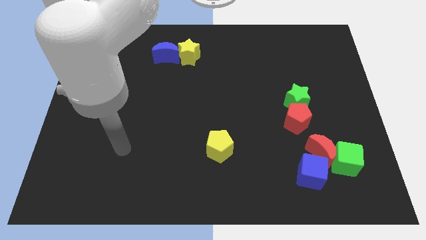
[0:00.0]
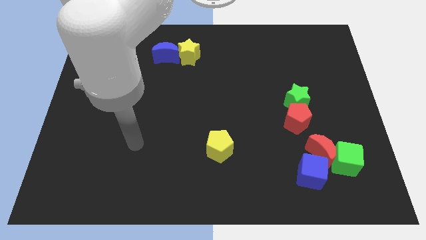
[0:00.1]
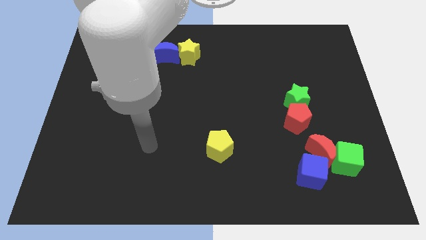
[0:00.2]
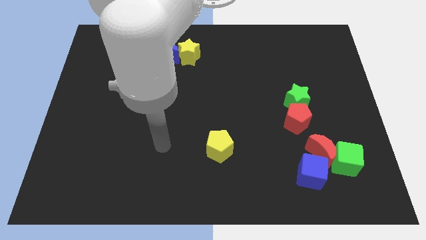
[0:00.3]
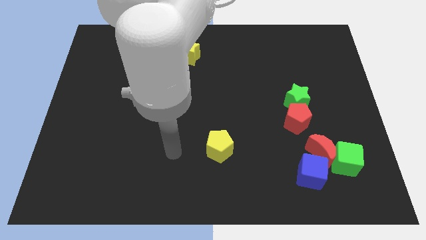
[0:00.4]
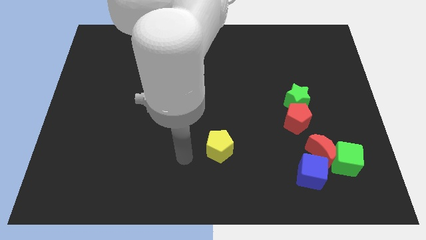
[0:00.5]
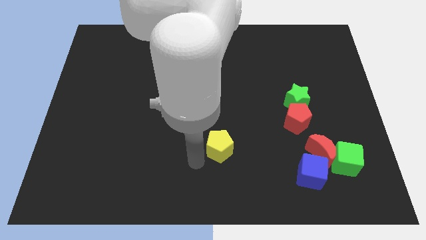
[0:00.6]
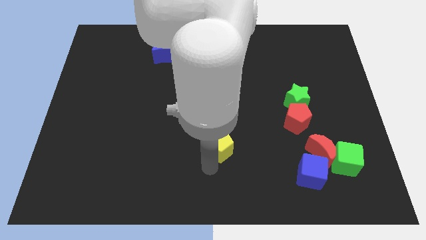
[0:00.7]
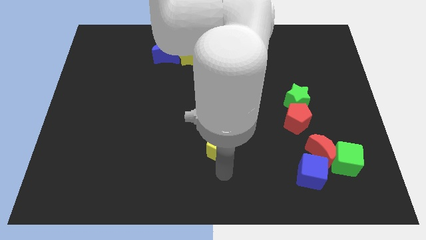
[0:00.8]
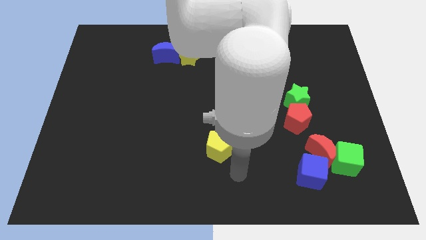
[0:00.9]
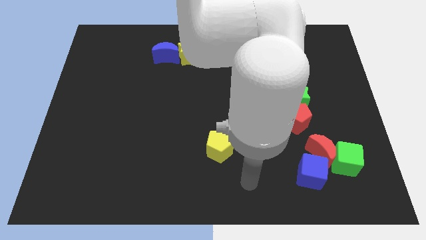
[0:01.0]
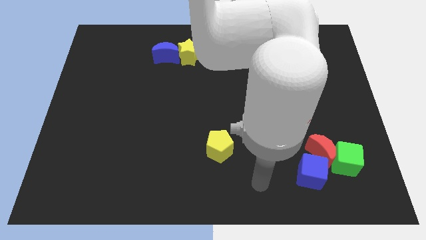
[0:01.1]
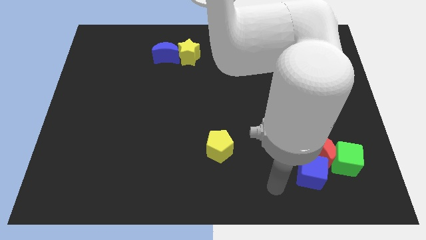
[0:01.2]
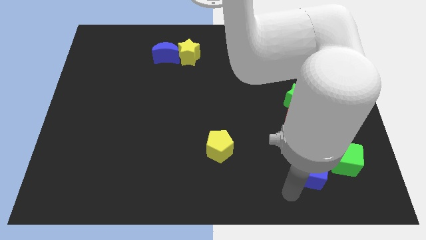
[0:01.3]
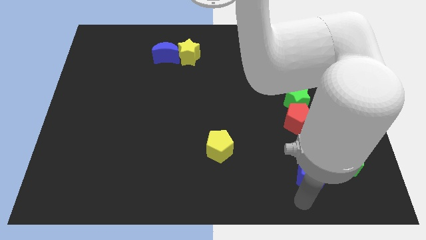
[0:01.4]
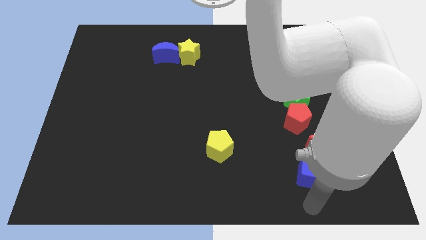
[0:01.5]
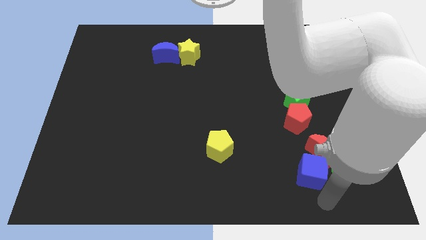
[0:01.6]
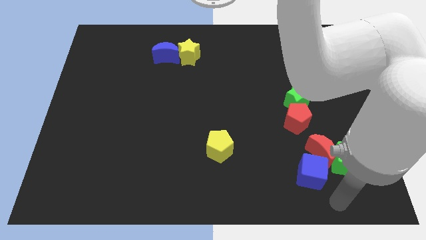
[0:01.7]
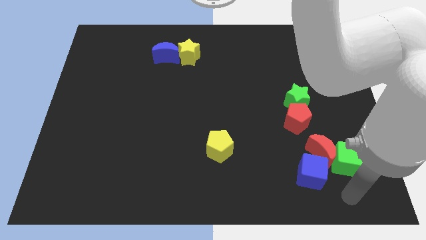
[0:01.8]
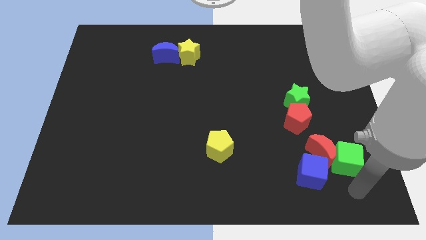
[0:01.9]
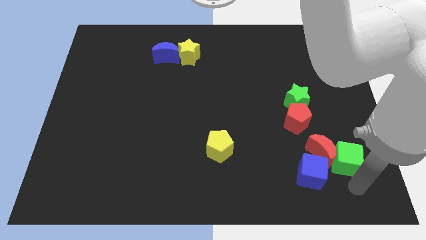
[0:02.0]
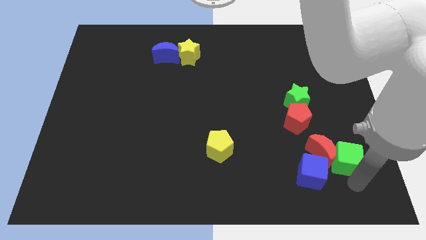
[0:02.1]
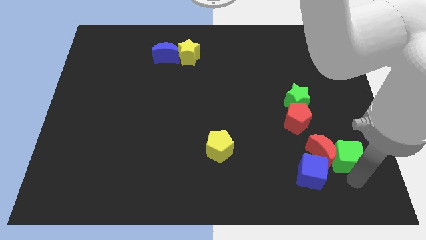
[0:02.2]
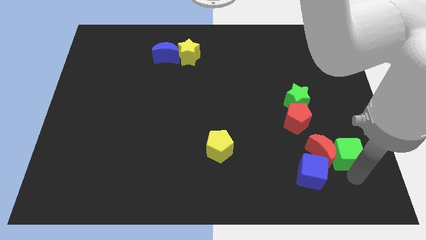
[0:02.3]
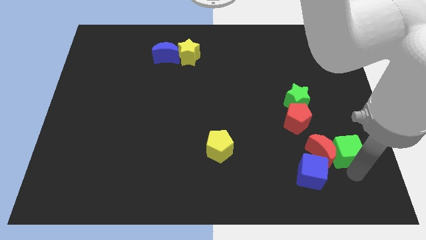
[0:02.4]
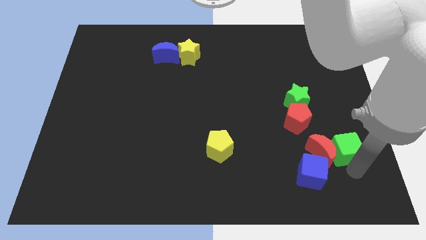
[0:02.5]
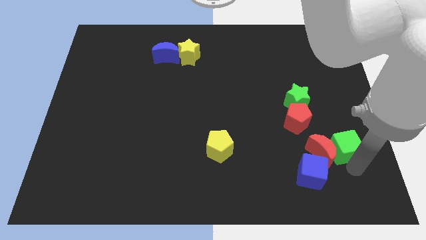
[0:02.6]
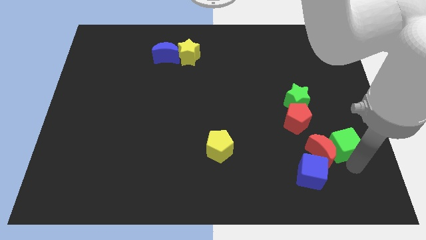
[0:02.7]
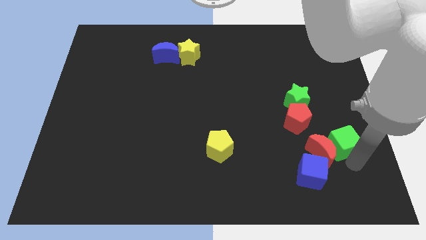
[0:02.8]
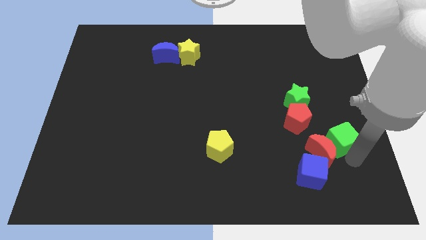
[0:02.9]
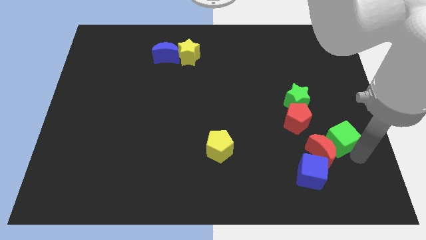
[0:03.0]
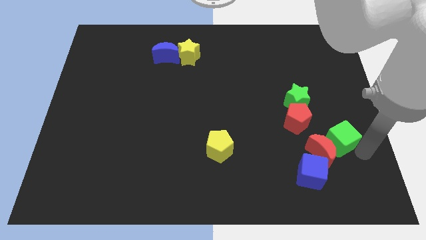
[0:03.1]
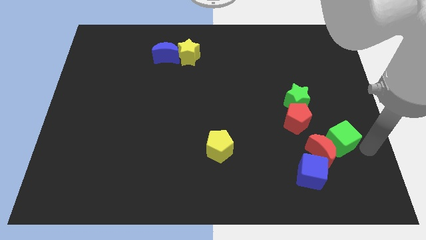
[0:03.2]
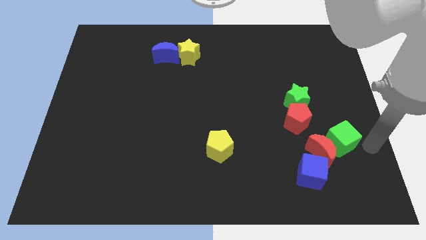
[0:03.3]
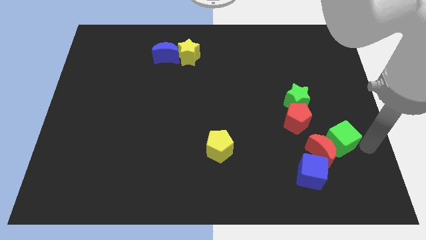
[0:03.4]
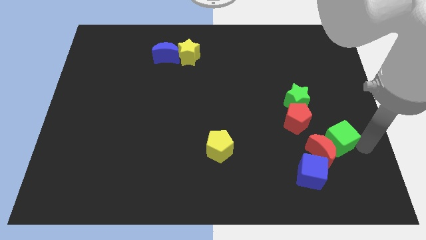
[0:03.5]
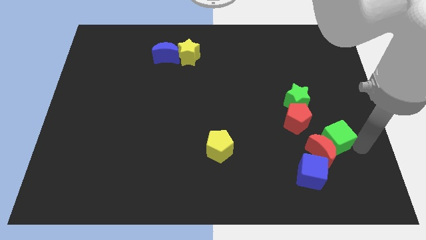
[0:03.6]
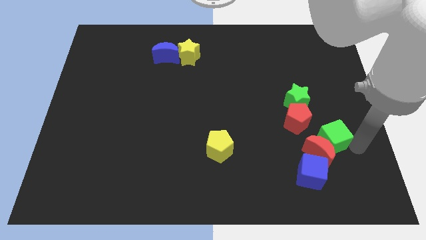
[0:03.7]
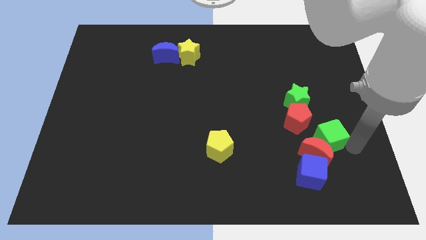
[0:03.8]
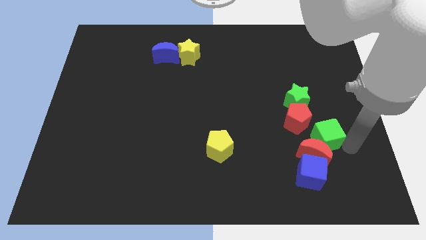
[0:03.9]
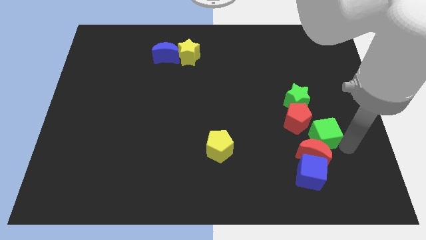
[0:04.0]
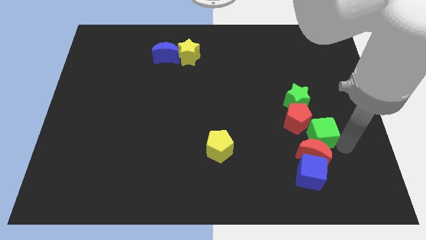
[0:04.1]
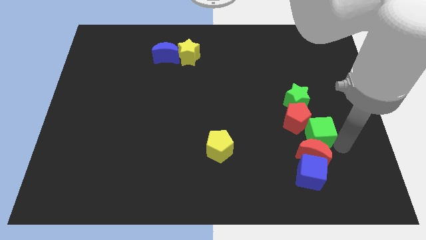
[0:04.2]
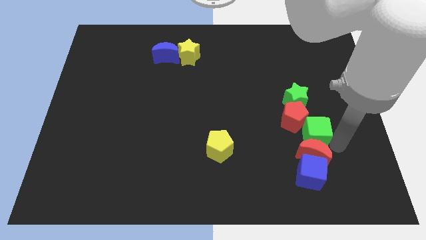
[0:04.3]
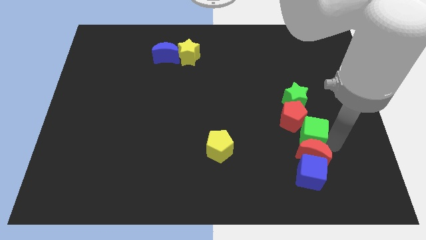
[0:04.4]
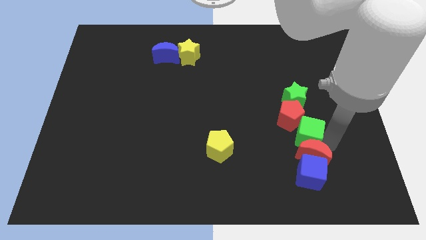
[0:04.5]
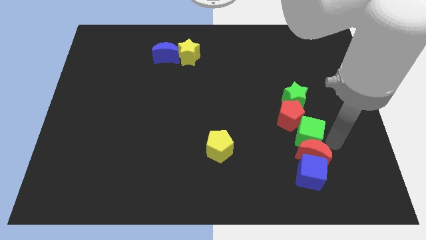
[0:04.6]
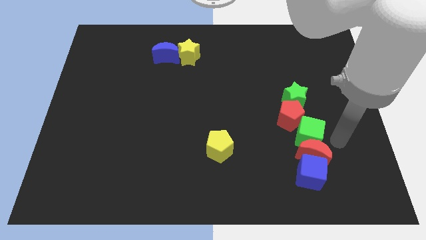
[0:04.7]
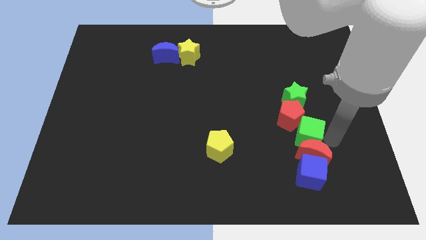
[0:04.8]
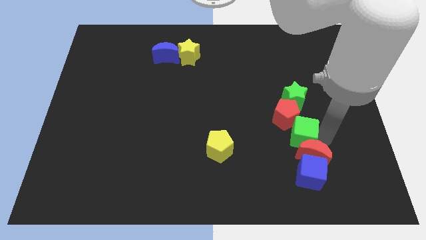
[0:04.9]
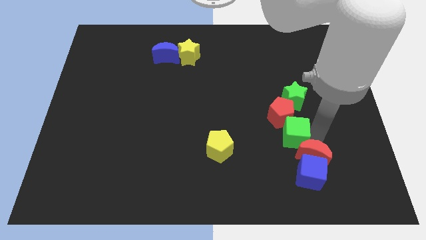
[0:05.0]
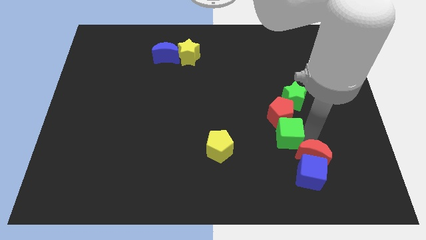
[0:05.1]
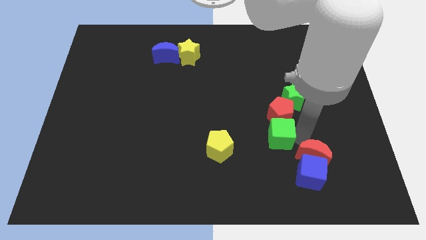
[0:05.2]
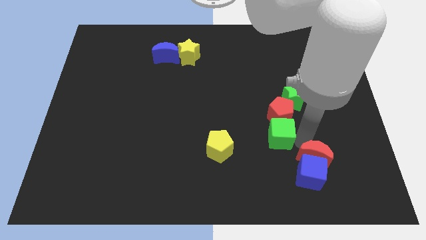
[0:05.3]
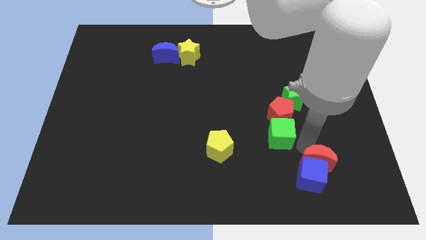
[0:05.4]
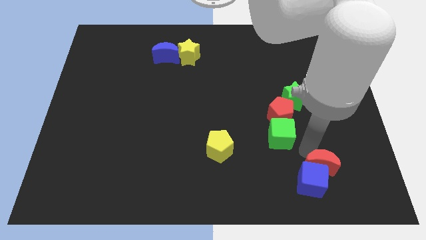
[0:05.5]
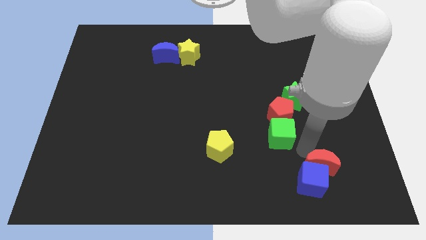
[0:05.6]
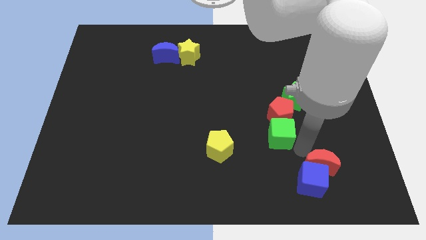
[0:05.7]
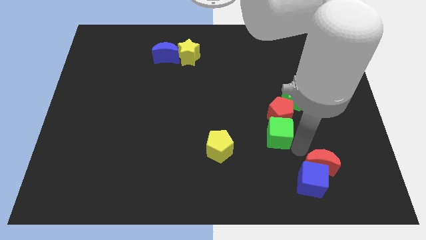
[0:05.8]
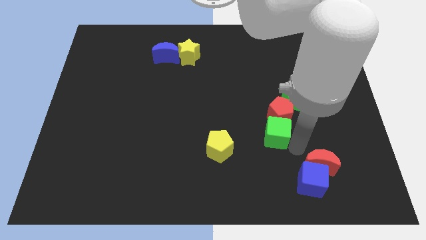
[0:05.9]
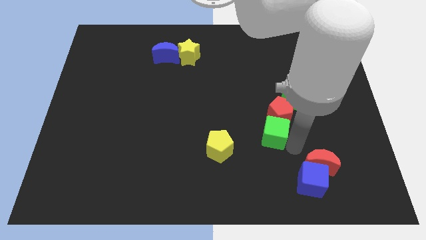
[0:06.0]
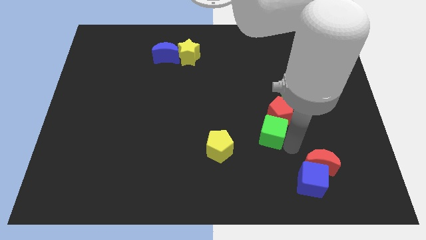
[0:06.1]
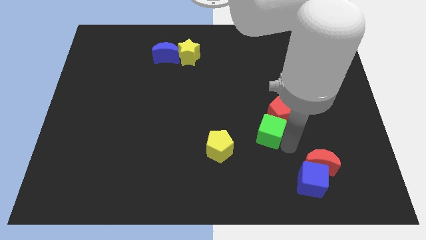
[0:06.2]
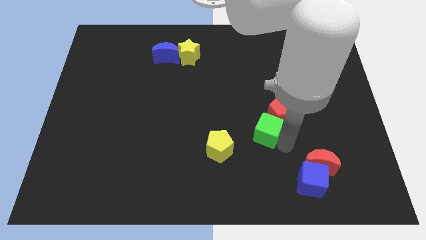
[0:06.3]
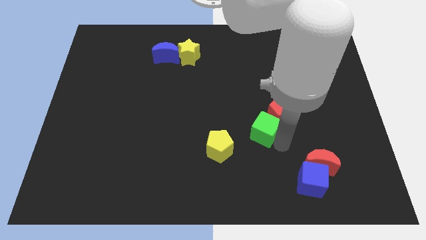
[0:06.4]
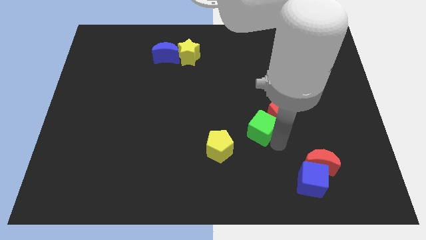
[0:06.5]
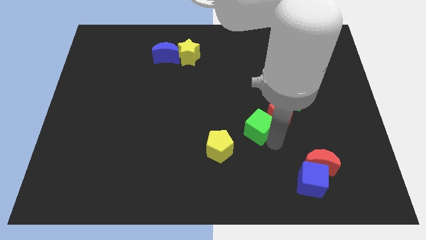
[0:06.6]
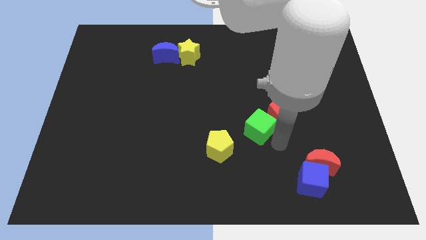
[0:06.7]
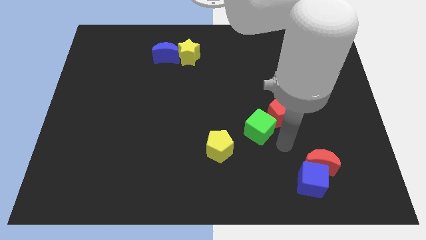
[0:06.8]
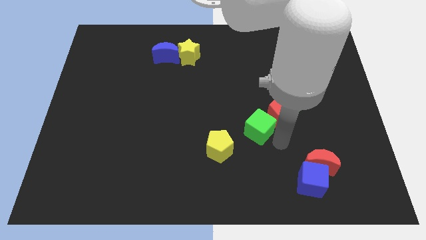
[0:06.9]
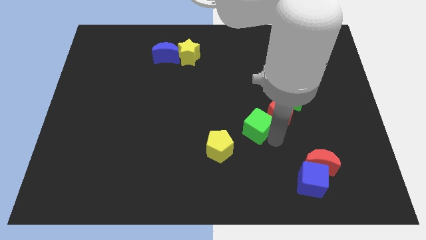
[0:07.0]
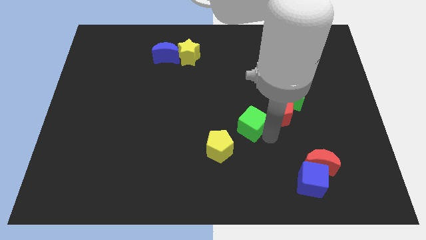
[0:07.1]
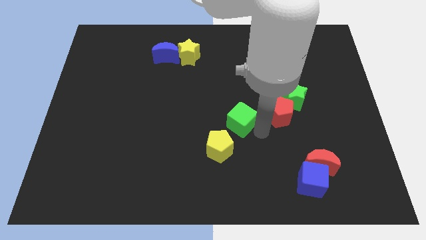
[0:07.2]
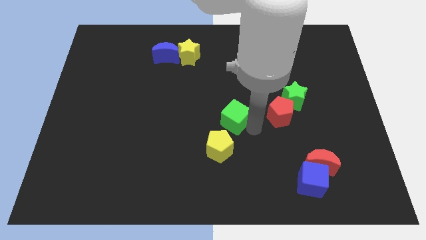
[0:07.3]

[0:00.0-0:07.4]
put the green cube to the top of the yellow pentagon

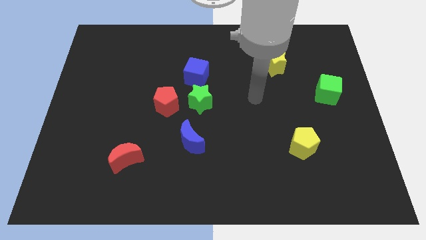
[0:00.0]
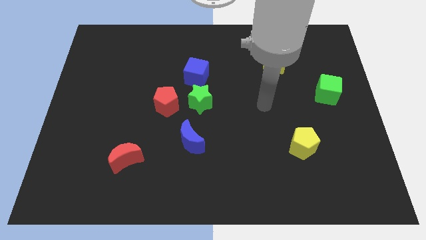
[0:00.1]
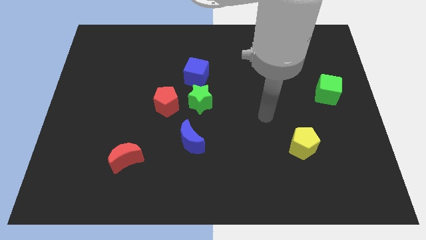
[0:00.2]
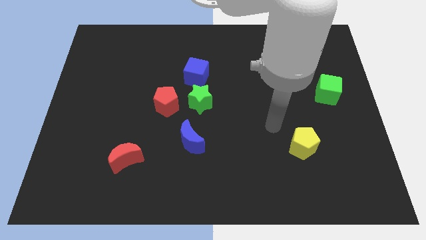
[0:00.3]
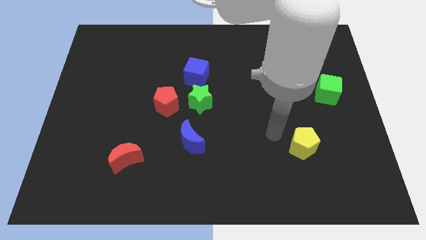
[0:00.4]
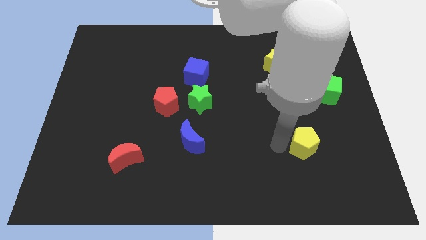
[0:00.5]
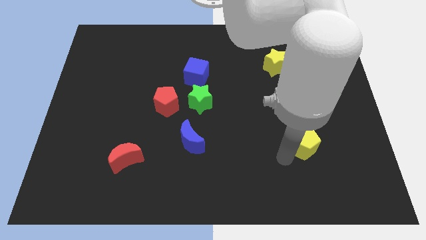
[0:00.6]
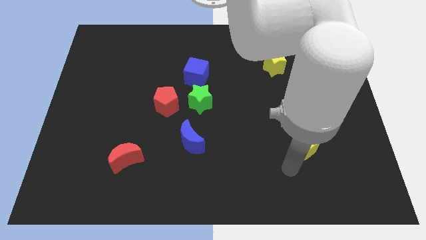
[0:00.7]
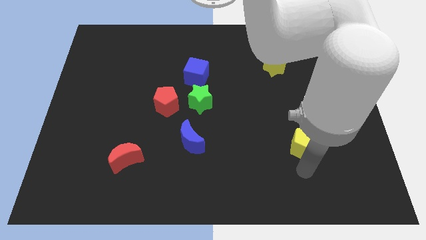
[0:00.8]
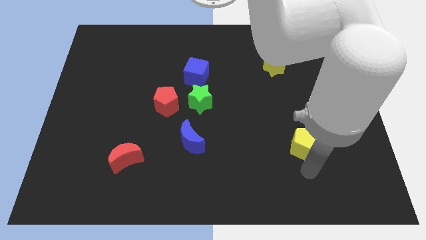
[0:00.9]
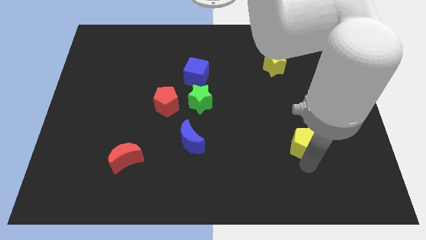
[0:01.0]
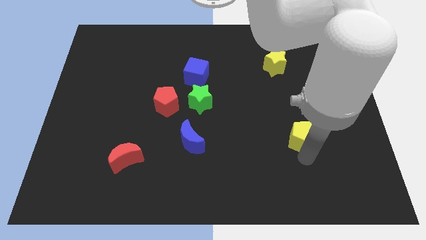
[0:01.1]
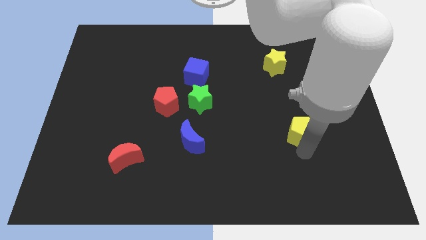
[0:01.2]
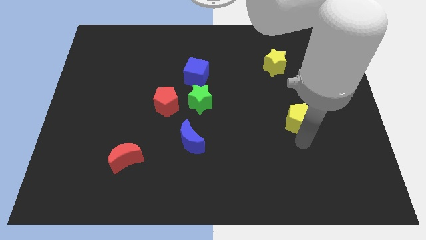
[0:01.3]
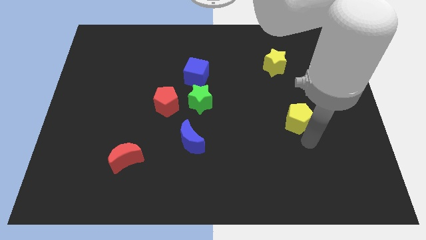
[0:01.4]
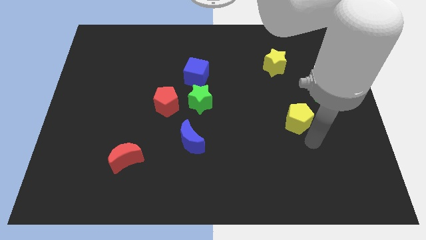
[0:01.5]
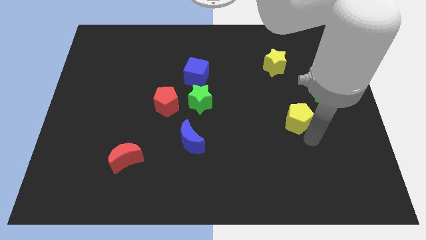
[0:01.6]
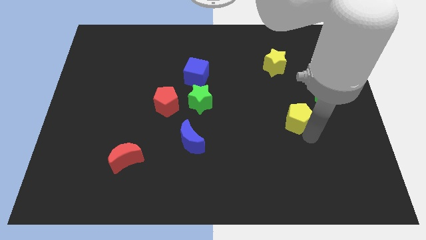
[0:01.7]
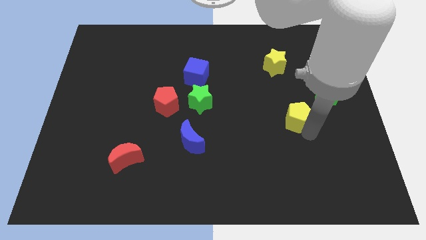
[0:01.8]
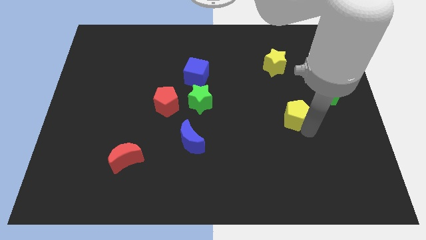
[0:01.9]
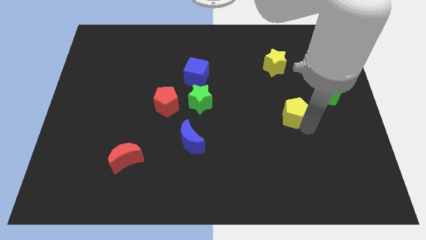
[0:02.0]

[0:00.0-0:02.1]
slide the yellow pentagon to the bottom side of the yellow star
